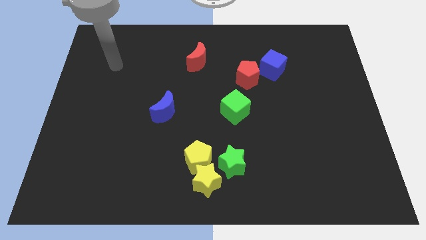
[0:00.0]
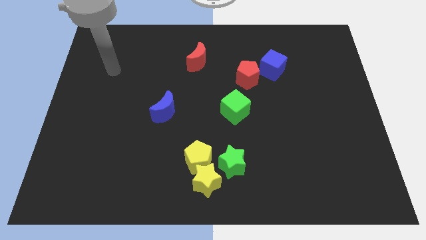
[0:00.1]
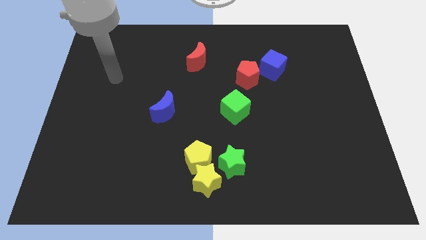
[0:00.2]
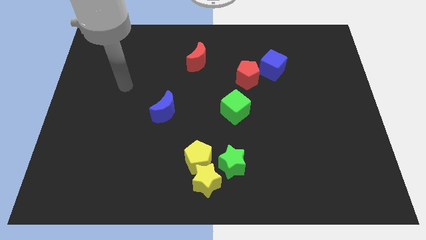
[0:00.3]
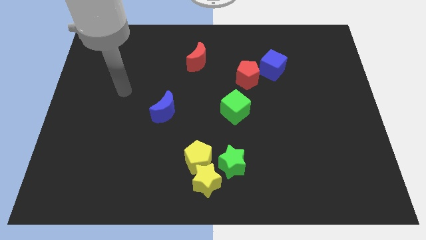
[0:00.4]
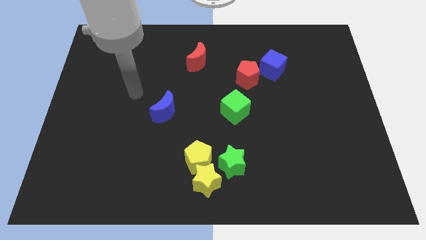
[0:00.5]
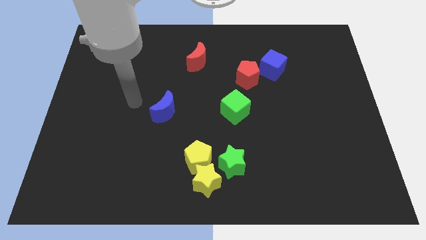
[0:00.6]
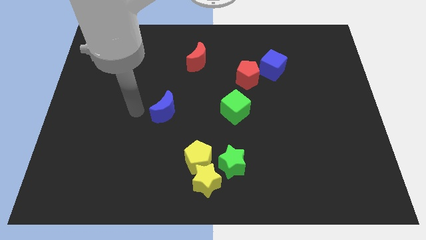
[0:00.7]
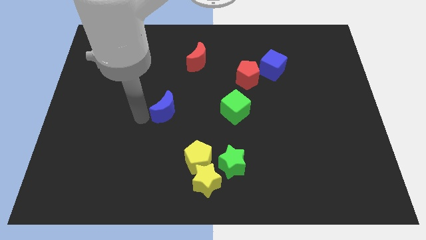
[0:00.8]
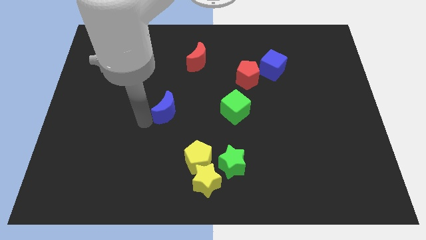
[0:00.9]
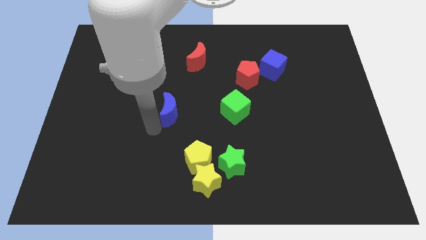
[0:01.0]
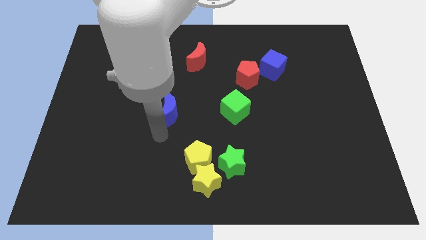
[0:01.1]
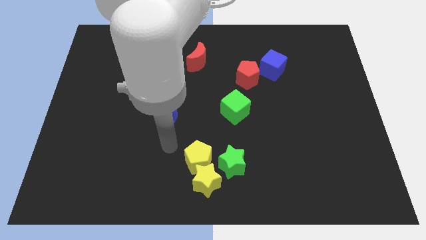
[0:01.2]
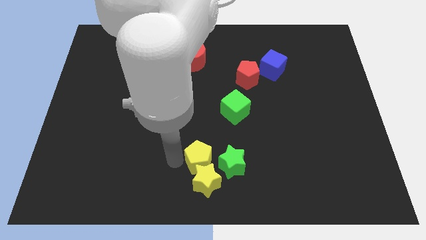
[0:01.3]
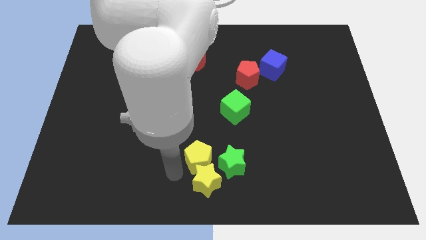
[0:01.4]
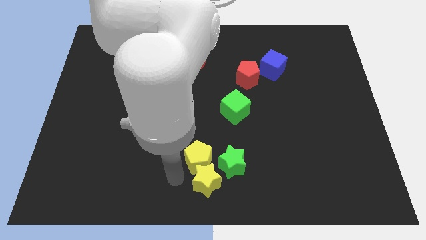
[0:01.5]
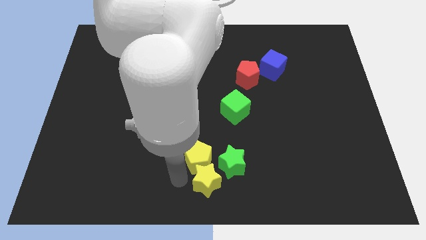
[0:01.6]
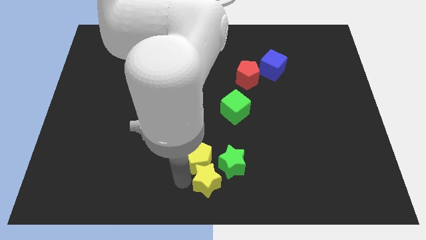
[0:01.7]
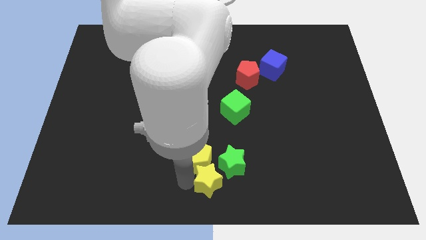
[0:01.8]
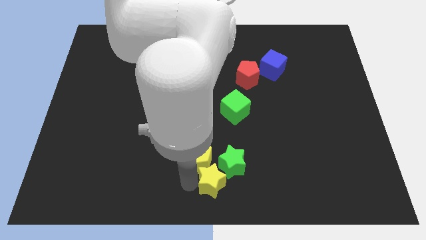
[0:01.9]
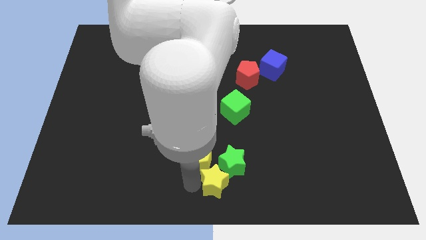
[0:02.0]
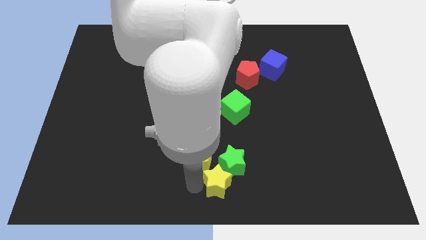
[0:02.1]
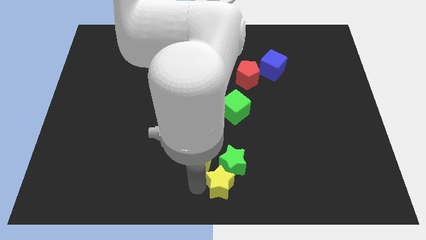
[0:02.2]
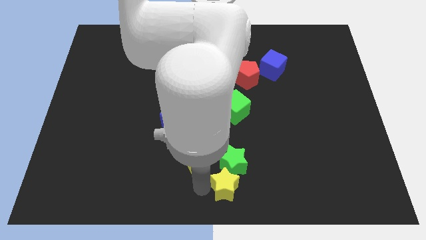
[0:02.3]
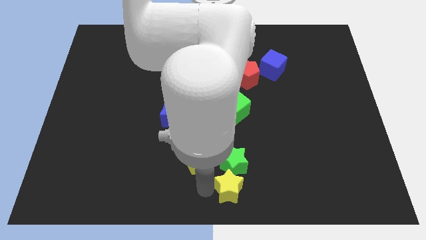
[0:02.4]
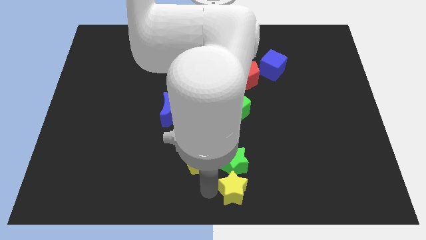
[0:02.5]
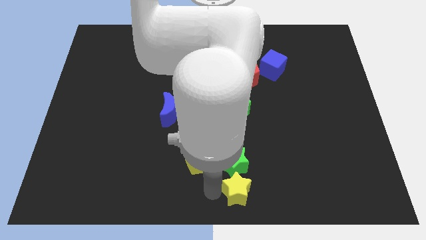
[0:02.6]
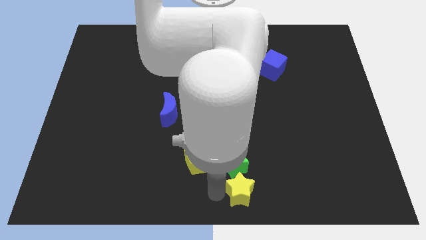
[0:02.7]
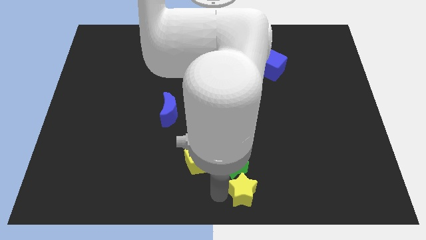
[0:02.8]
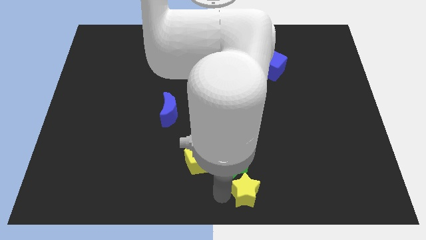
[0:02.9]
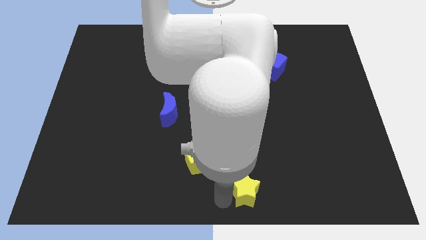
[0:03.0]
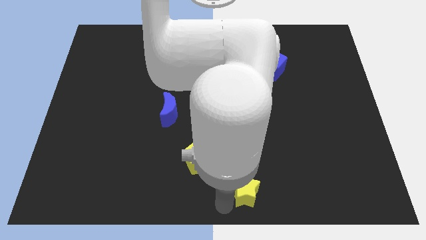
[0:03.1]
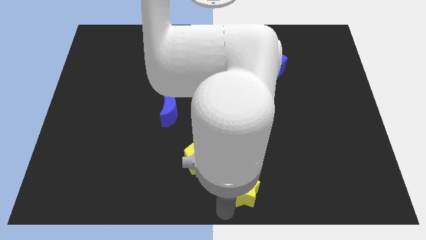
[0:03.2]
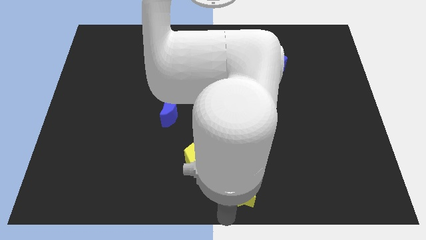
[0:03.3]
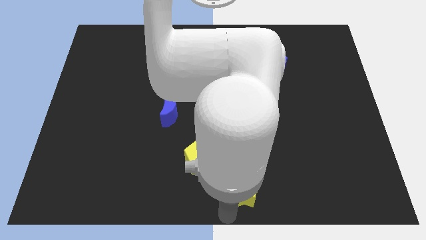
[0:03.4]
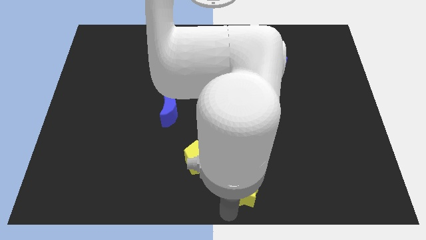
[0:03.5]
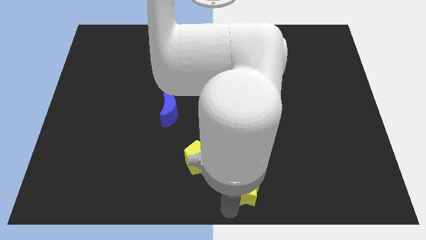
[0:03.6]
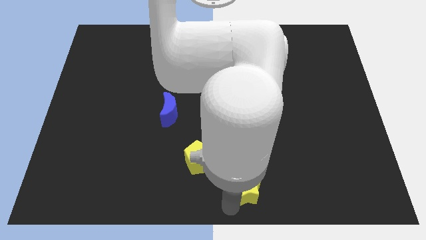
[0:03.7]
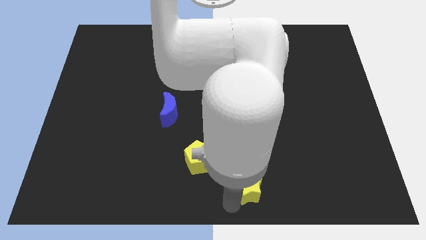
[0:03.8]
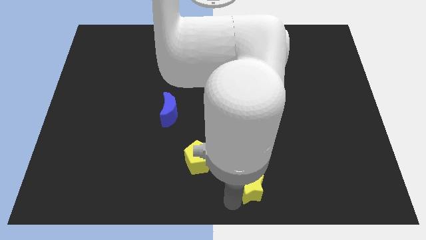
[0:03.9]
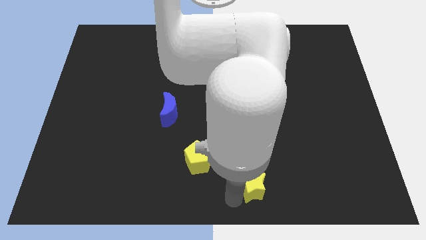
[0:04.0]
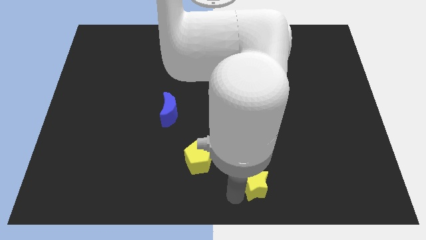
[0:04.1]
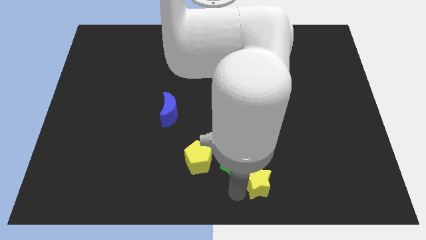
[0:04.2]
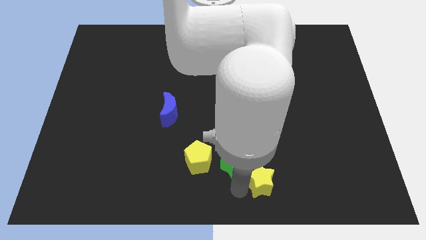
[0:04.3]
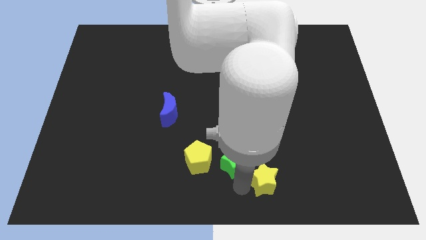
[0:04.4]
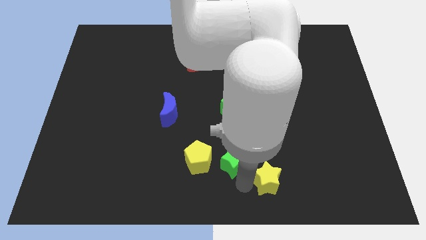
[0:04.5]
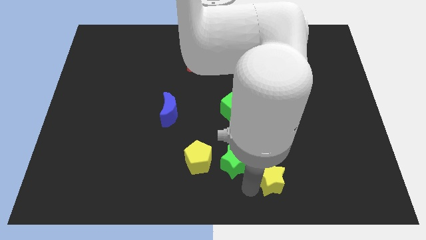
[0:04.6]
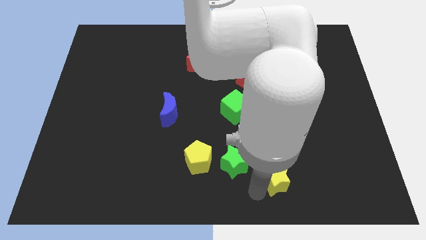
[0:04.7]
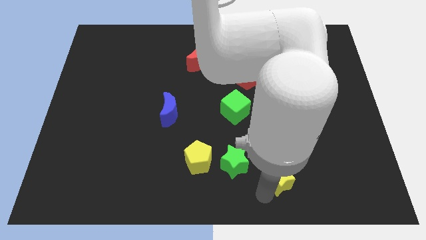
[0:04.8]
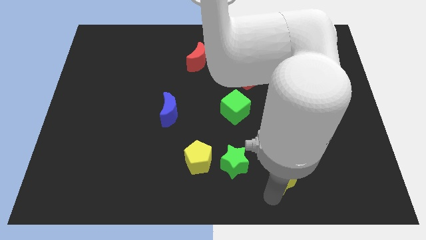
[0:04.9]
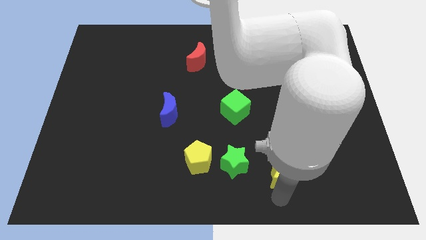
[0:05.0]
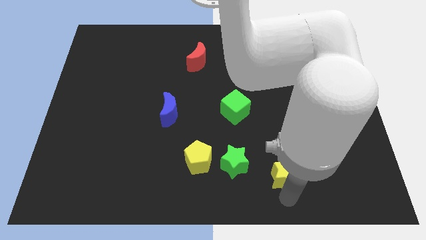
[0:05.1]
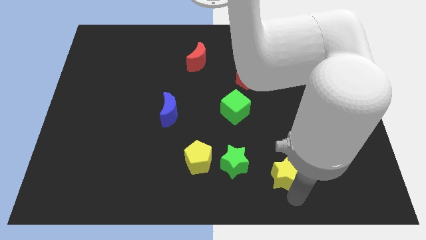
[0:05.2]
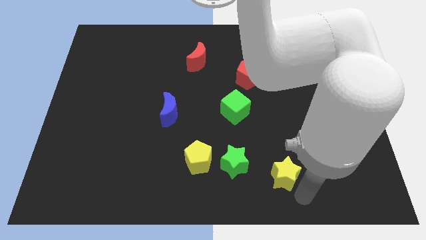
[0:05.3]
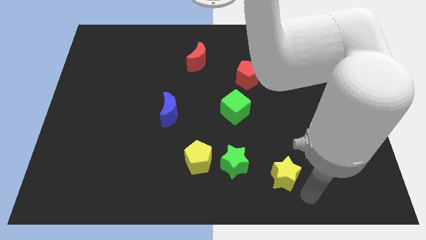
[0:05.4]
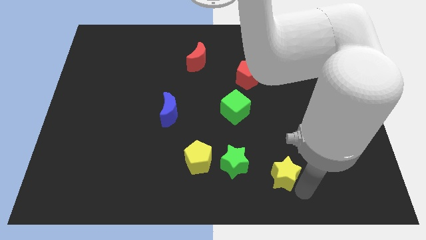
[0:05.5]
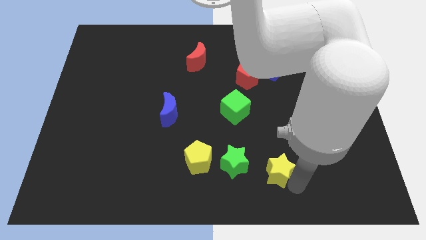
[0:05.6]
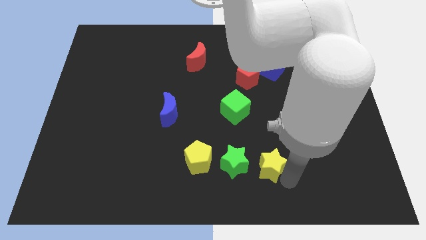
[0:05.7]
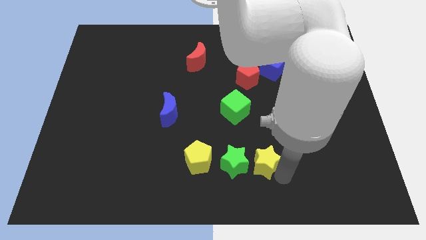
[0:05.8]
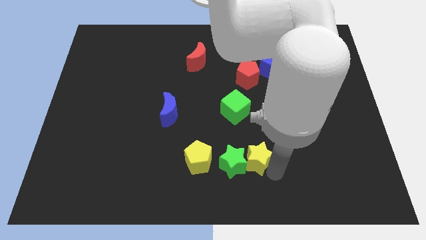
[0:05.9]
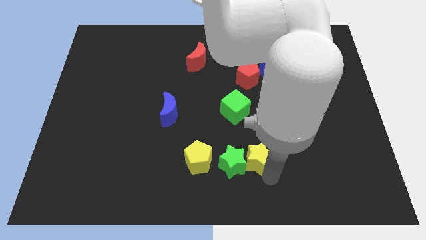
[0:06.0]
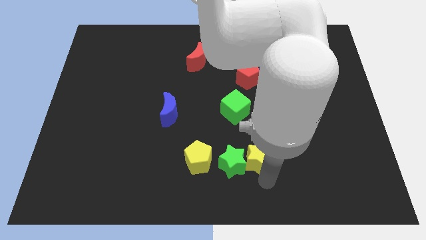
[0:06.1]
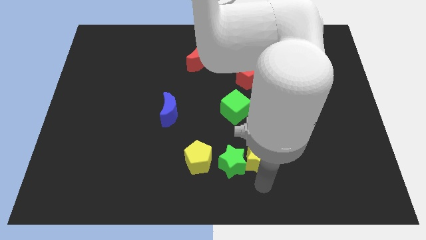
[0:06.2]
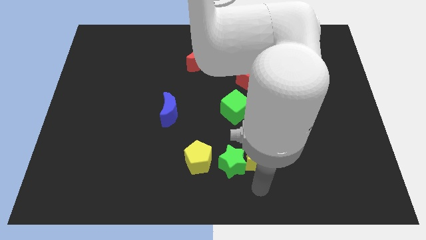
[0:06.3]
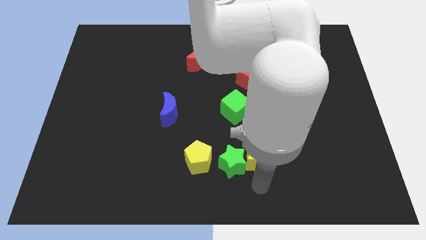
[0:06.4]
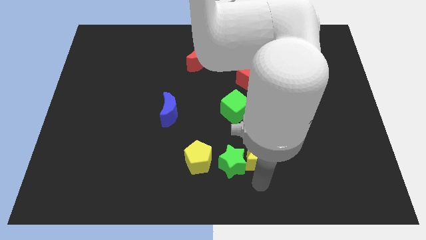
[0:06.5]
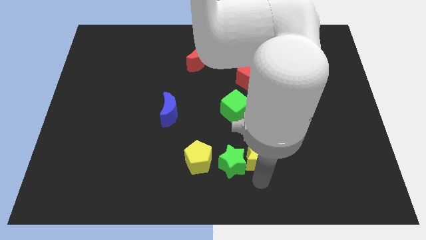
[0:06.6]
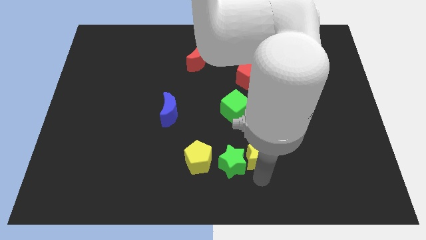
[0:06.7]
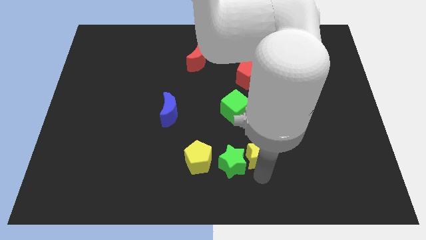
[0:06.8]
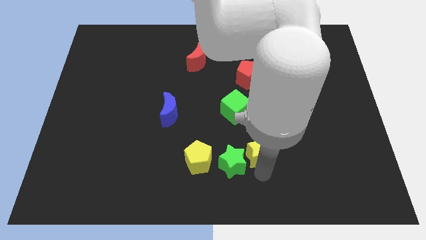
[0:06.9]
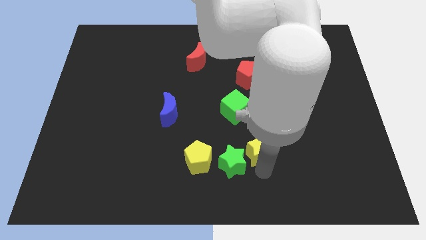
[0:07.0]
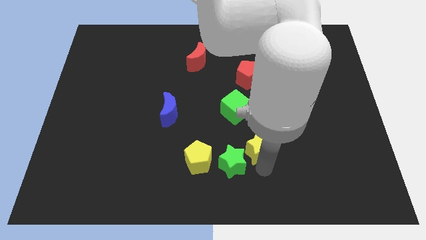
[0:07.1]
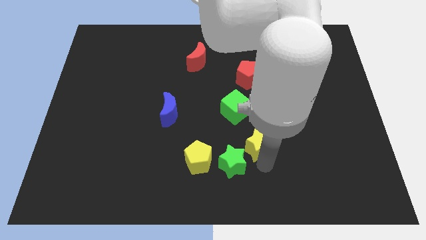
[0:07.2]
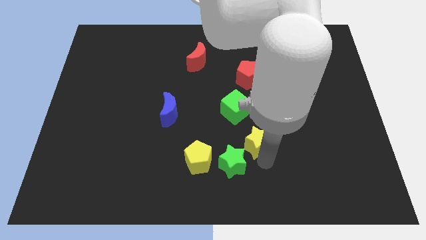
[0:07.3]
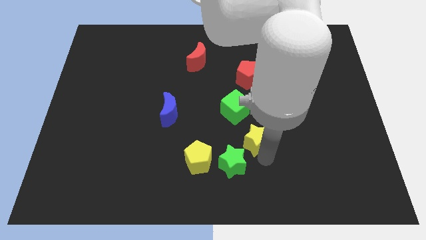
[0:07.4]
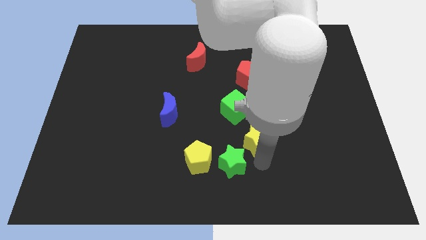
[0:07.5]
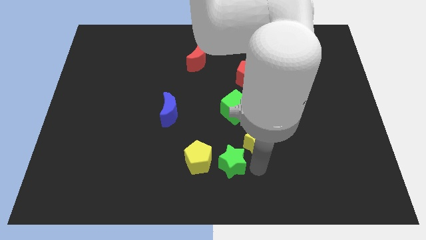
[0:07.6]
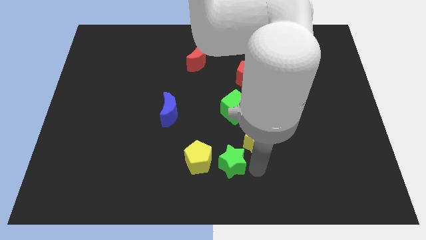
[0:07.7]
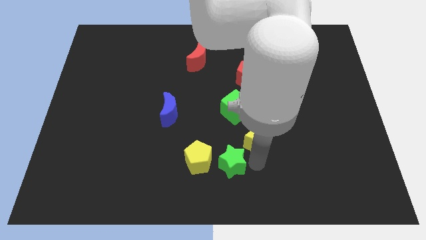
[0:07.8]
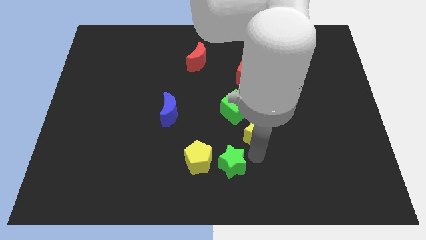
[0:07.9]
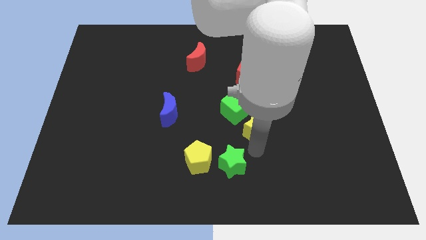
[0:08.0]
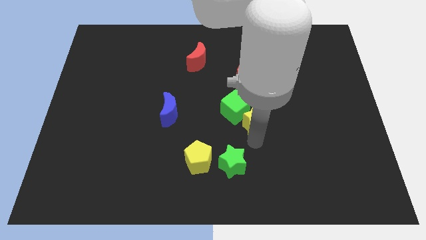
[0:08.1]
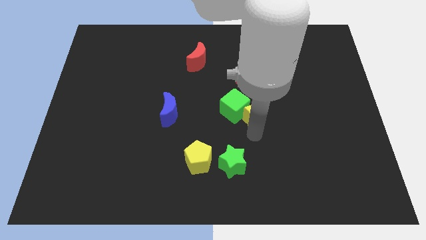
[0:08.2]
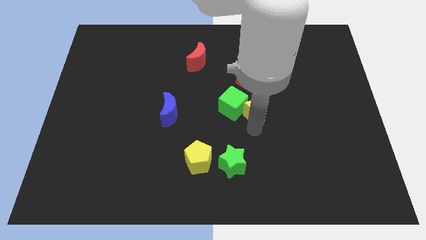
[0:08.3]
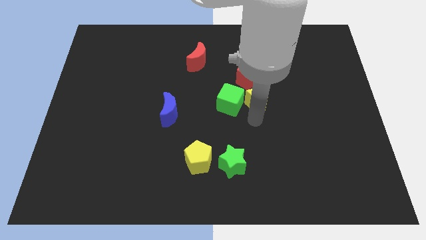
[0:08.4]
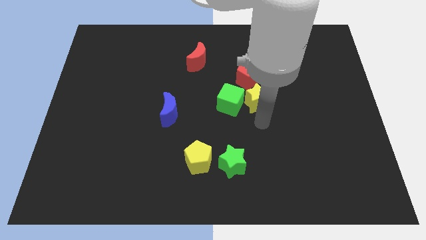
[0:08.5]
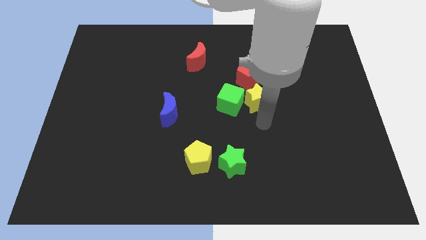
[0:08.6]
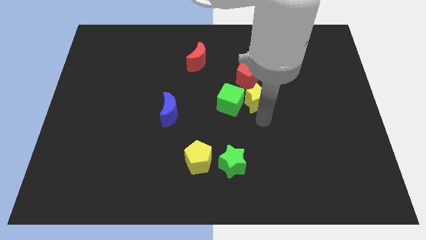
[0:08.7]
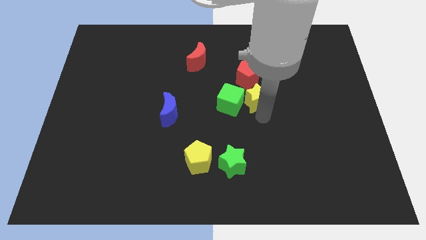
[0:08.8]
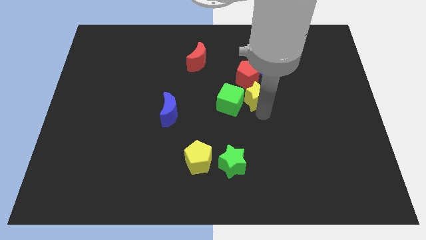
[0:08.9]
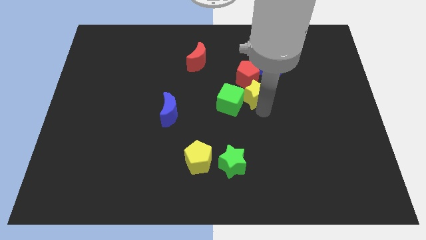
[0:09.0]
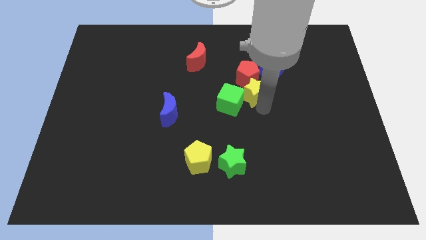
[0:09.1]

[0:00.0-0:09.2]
push the yellow star towards the red pentagon
